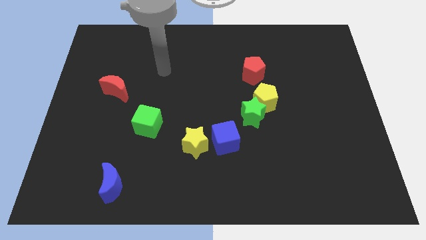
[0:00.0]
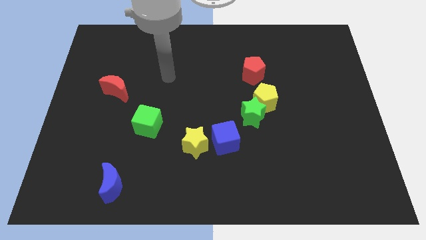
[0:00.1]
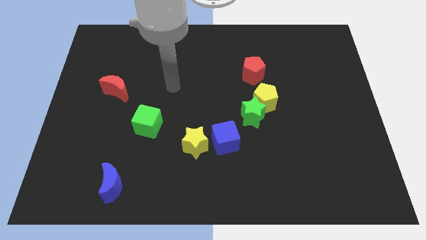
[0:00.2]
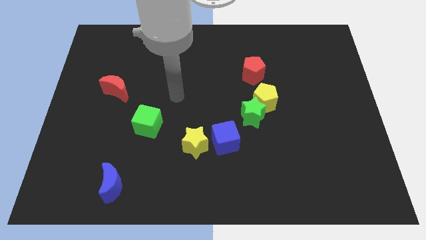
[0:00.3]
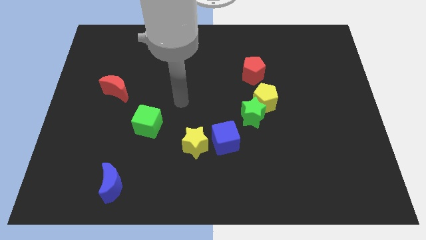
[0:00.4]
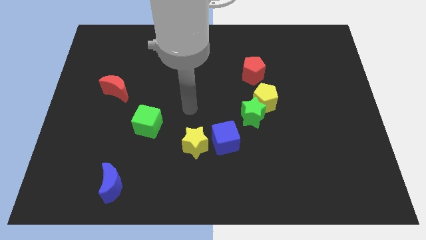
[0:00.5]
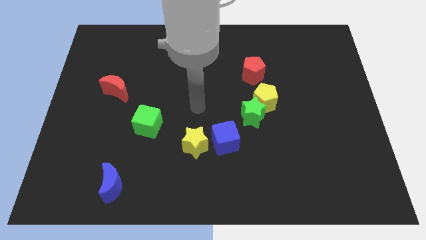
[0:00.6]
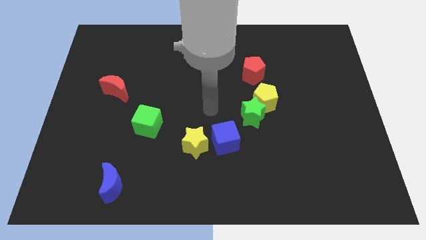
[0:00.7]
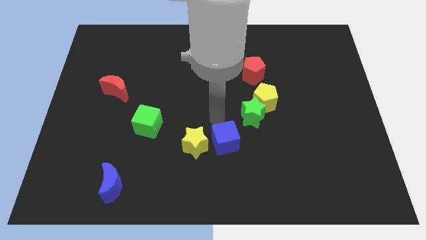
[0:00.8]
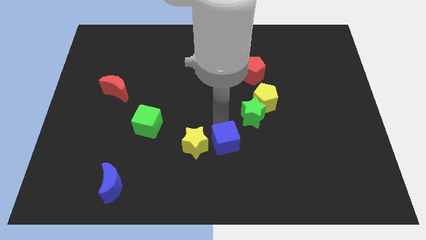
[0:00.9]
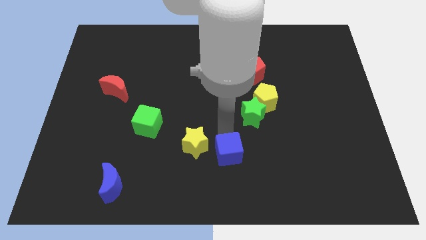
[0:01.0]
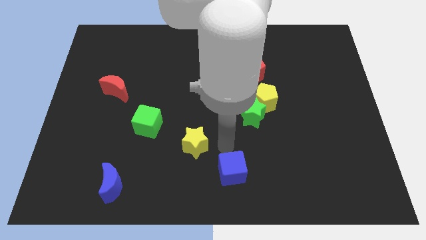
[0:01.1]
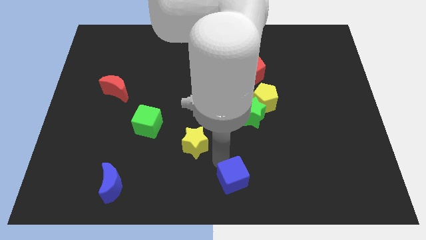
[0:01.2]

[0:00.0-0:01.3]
pull the yellow star apart from the blue cube

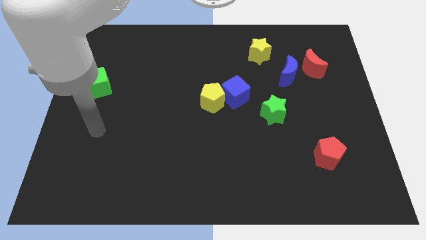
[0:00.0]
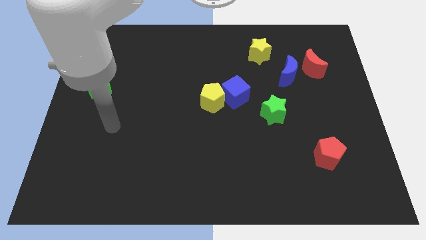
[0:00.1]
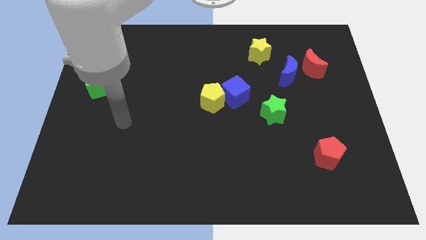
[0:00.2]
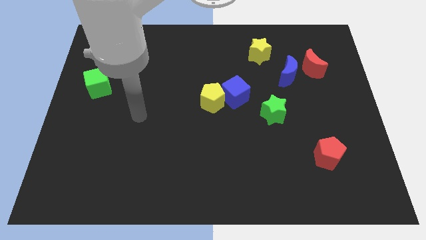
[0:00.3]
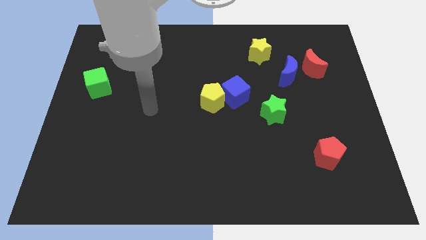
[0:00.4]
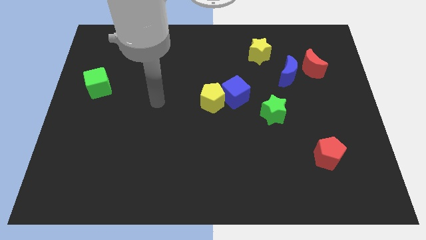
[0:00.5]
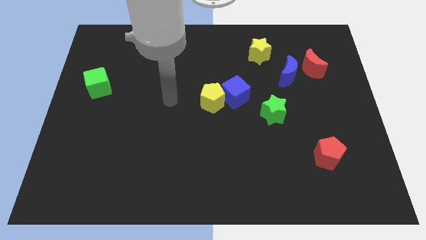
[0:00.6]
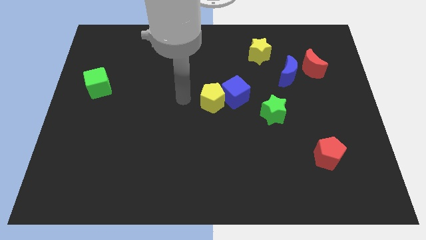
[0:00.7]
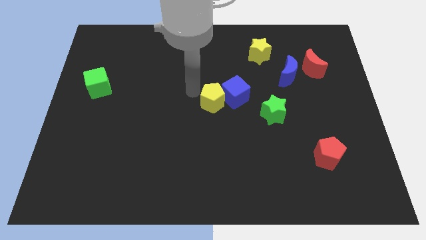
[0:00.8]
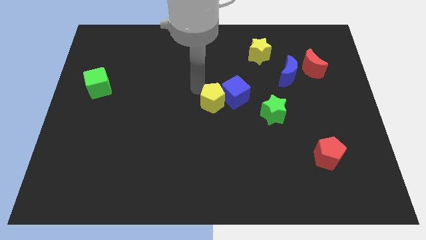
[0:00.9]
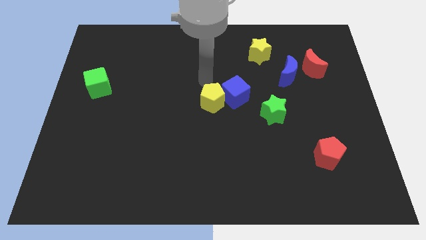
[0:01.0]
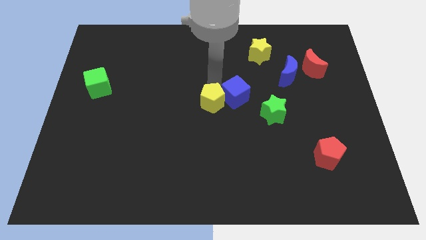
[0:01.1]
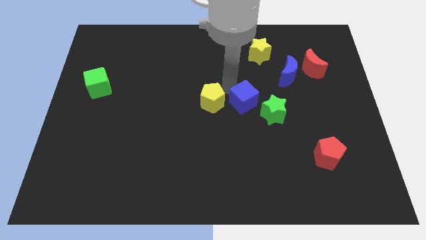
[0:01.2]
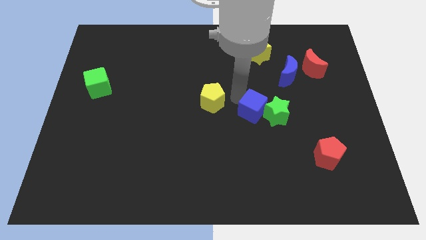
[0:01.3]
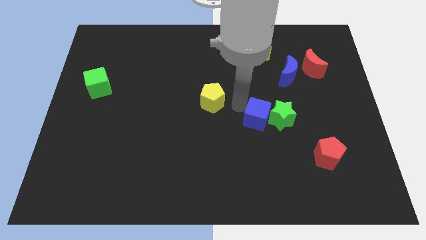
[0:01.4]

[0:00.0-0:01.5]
pull the yellow pentagon apart from the blue cube

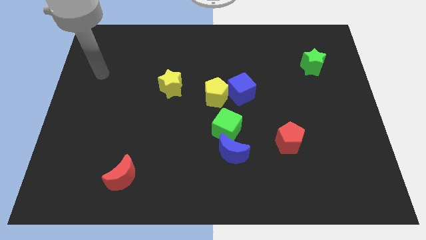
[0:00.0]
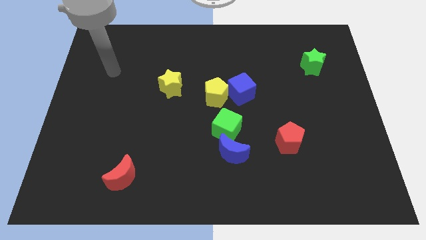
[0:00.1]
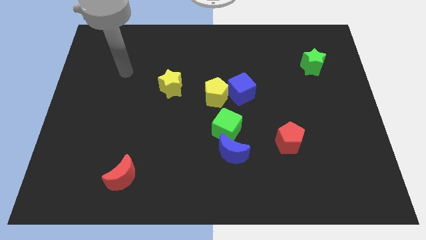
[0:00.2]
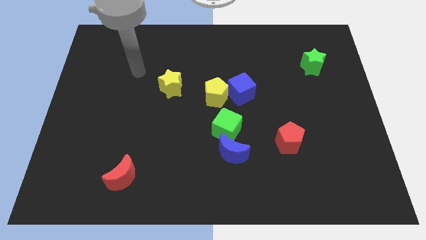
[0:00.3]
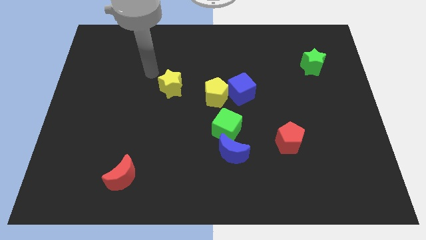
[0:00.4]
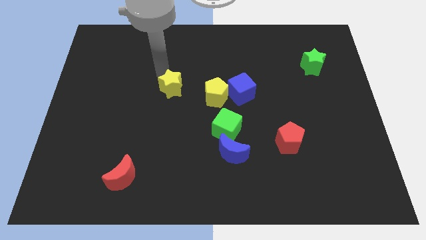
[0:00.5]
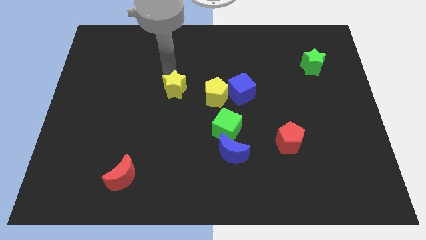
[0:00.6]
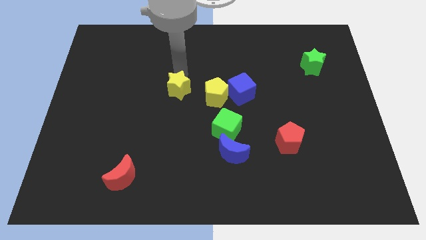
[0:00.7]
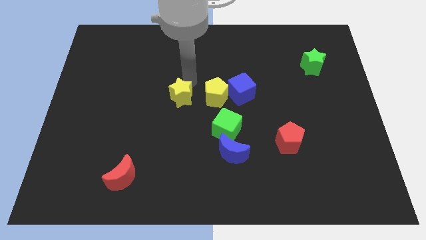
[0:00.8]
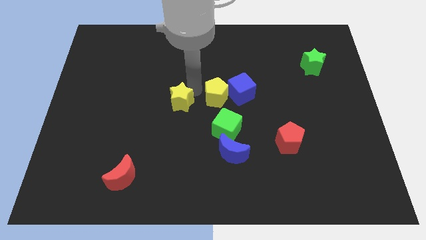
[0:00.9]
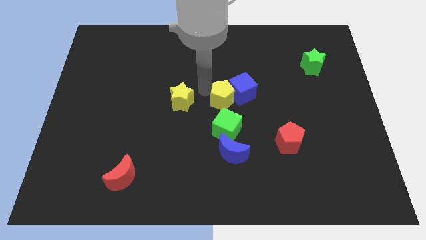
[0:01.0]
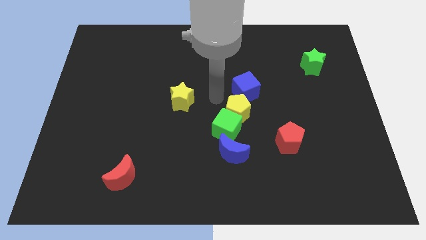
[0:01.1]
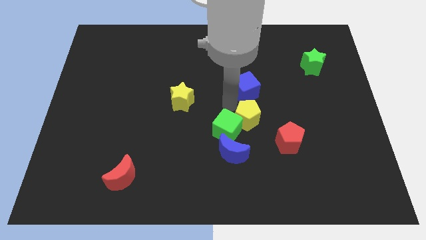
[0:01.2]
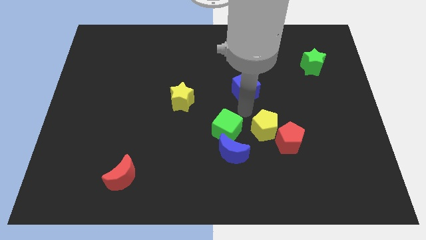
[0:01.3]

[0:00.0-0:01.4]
pull the blue cube apart from the yellow pentagon

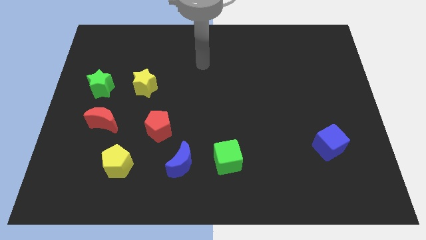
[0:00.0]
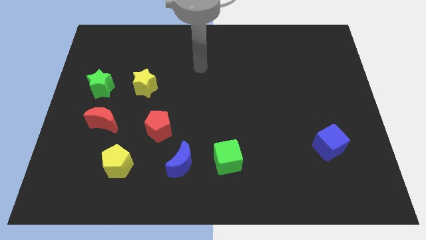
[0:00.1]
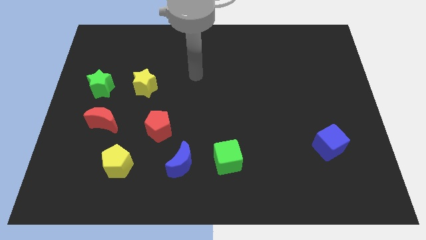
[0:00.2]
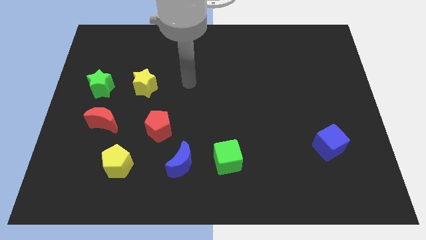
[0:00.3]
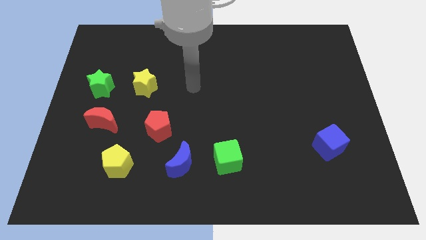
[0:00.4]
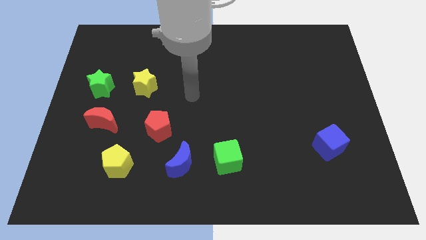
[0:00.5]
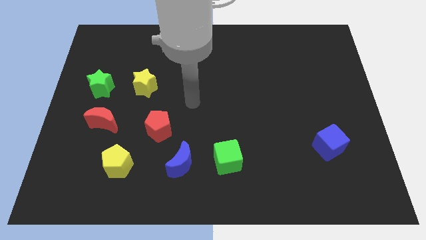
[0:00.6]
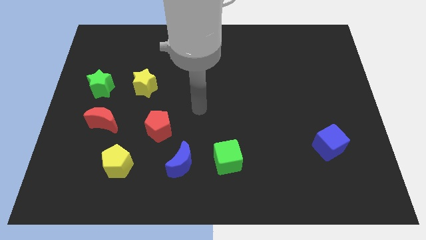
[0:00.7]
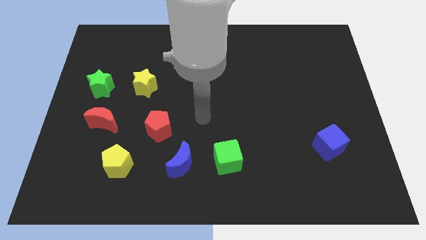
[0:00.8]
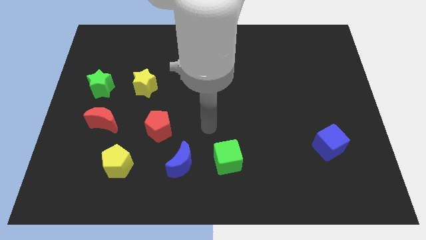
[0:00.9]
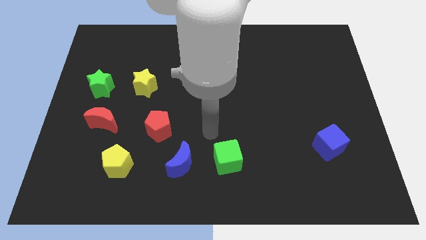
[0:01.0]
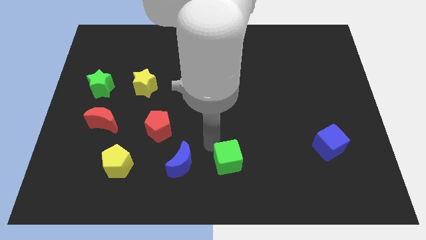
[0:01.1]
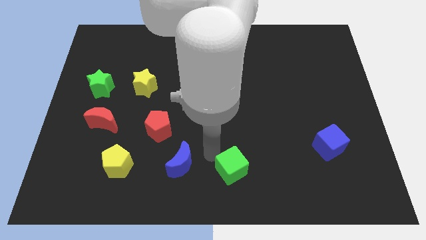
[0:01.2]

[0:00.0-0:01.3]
pull the blue moon apart from the green cube

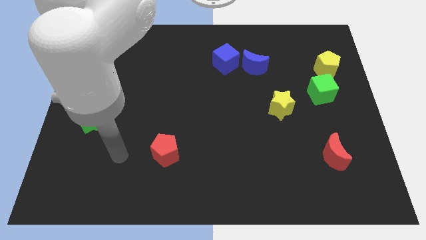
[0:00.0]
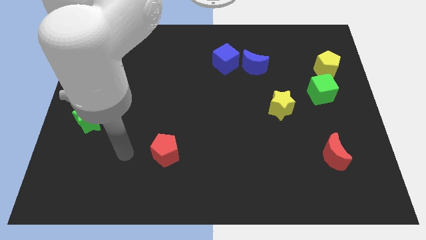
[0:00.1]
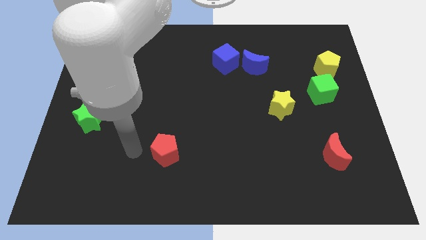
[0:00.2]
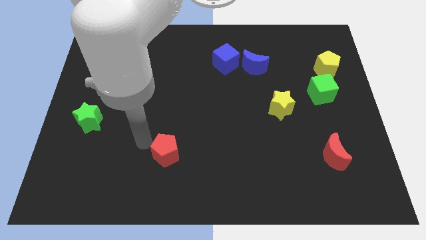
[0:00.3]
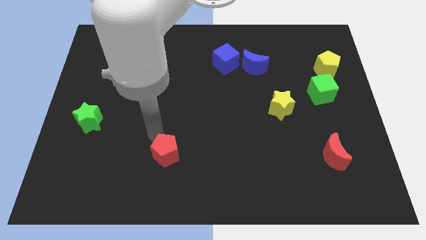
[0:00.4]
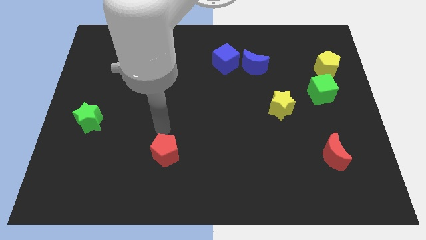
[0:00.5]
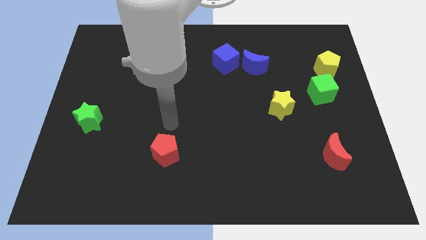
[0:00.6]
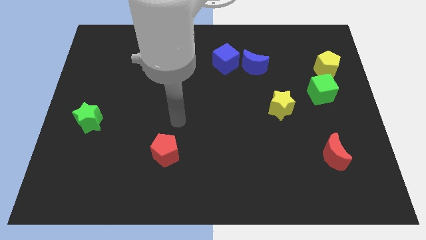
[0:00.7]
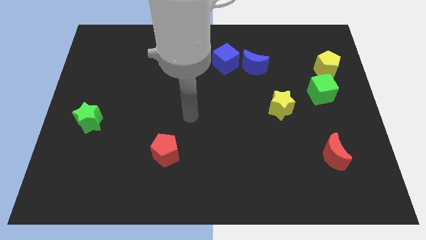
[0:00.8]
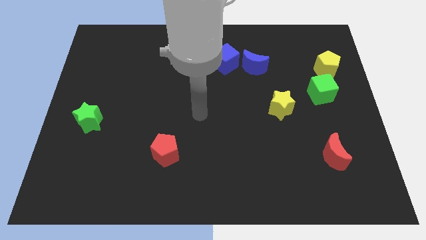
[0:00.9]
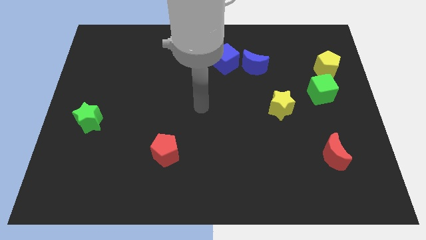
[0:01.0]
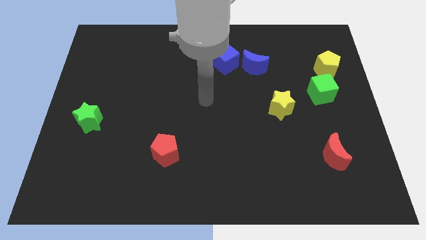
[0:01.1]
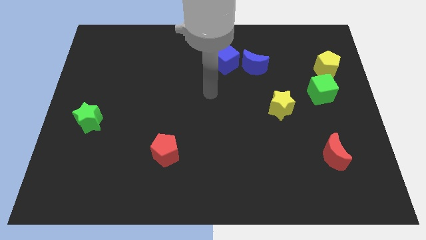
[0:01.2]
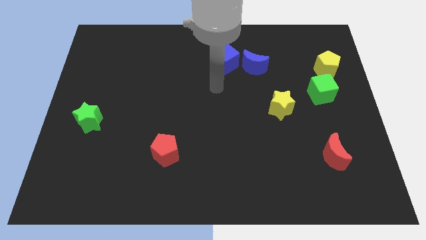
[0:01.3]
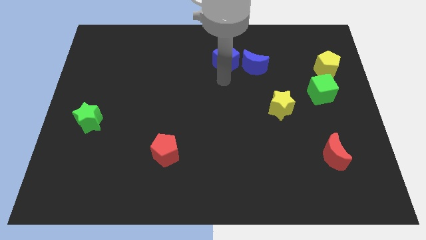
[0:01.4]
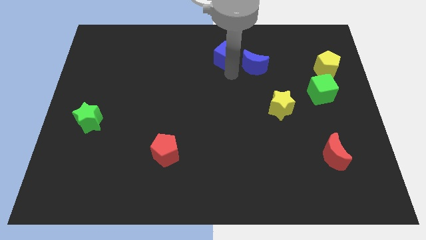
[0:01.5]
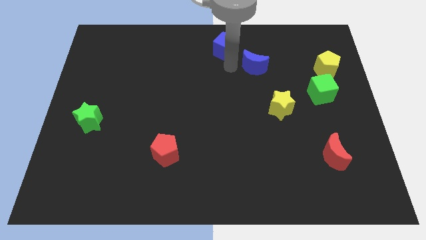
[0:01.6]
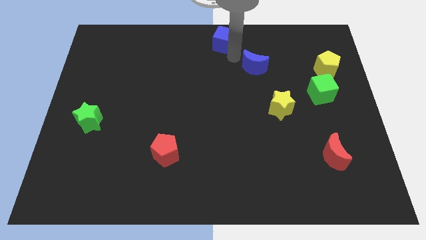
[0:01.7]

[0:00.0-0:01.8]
move the blue moon away from the blue cube

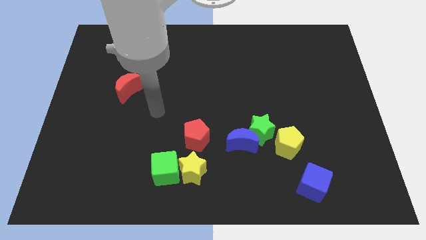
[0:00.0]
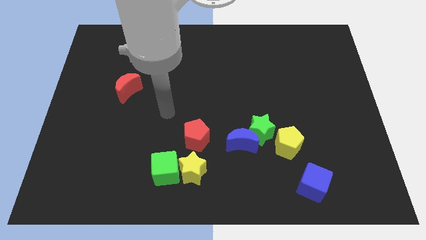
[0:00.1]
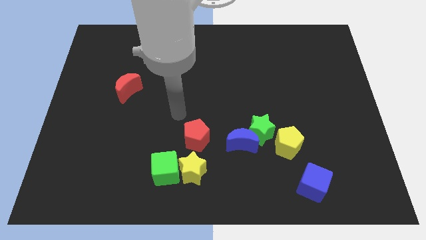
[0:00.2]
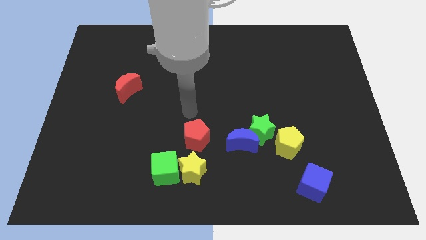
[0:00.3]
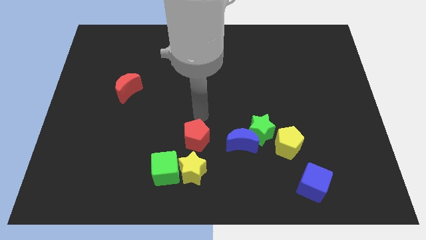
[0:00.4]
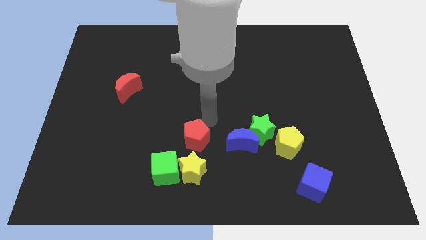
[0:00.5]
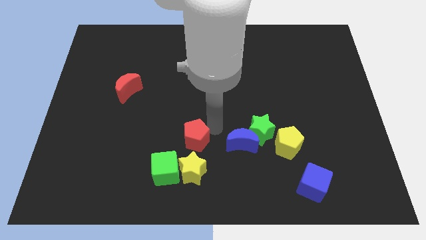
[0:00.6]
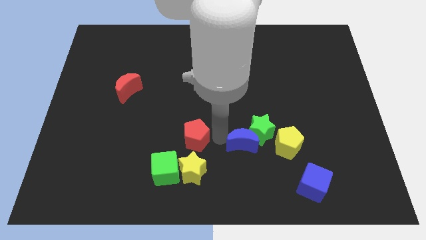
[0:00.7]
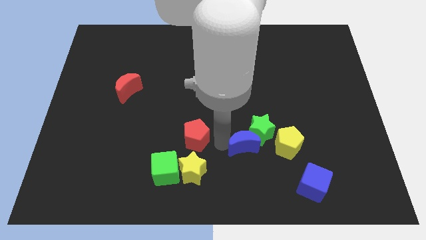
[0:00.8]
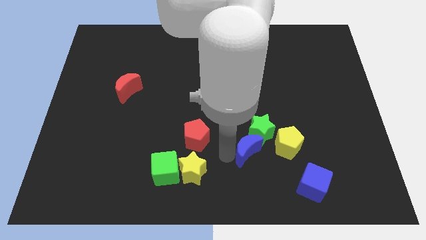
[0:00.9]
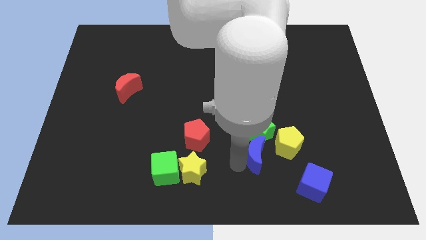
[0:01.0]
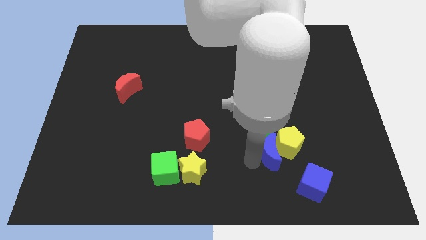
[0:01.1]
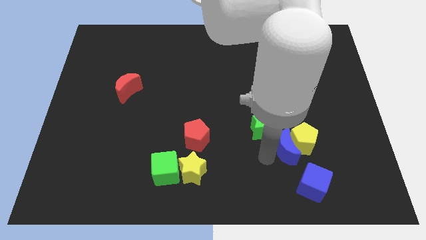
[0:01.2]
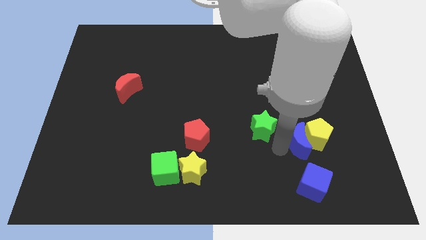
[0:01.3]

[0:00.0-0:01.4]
pull the green star apart from the blue moon and yellow pentagon

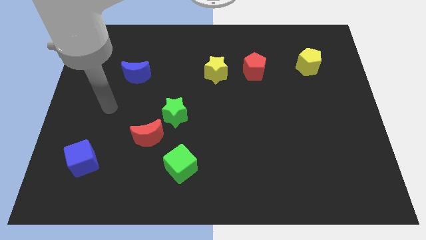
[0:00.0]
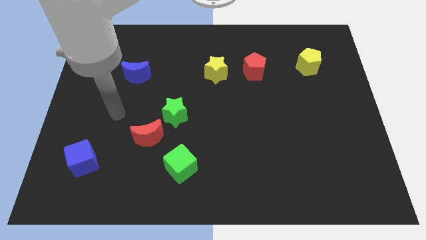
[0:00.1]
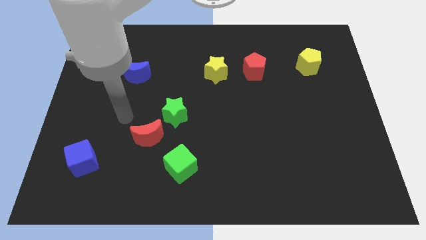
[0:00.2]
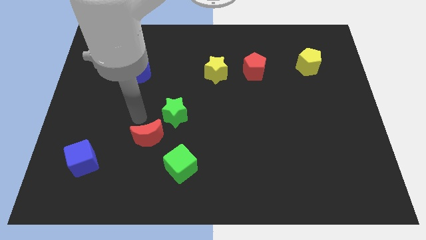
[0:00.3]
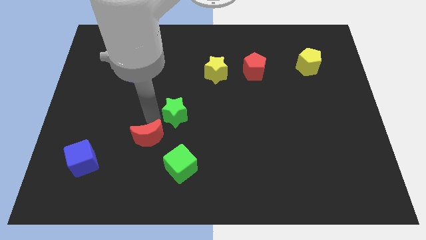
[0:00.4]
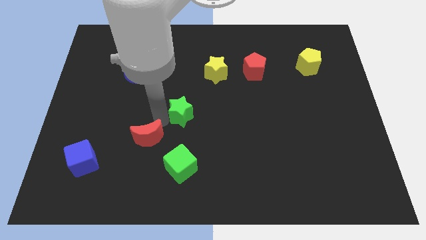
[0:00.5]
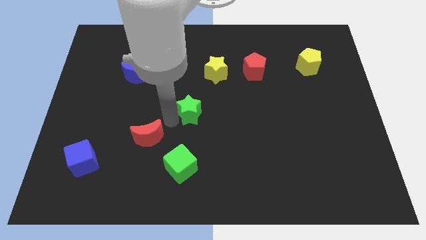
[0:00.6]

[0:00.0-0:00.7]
separate the red moon from the green star
